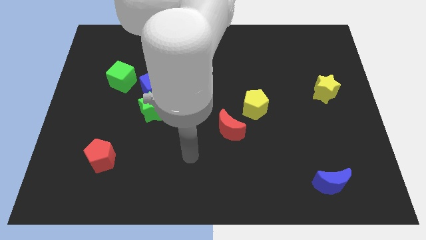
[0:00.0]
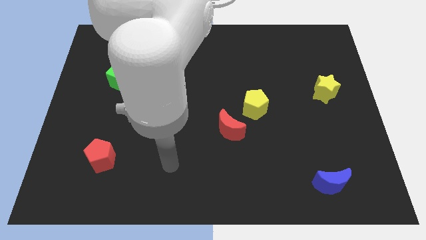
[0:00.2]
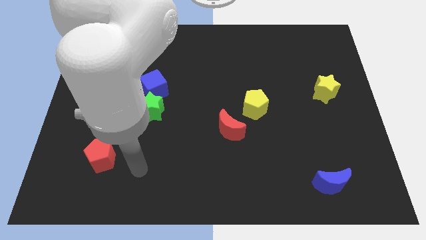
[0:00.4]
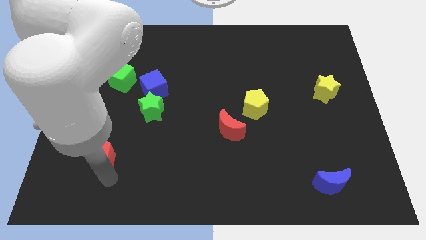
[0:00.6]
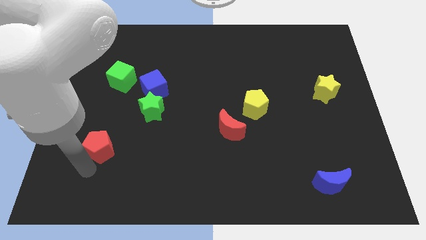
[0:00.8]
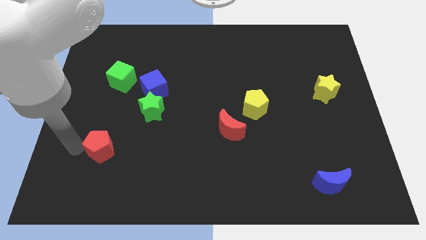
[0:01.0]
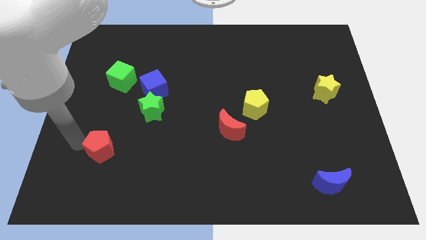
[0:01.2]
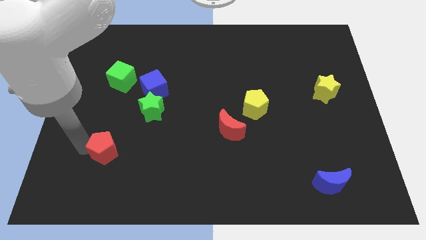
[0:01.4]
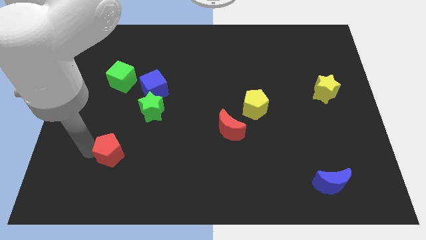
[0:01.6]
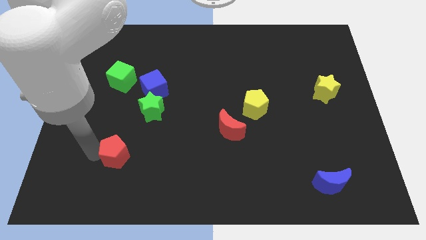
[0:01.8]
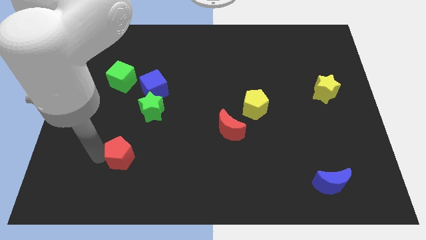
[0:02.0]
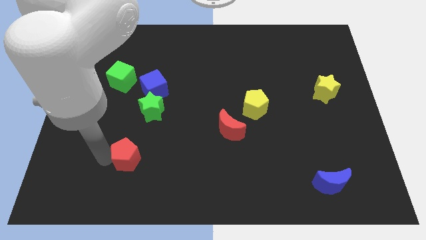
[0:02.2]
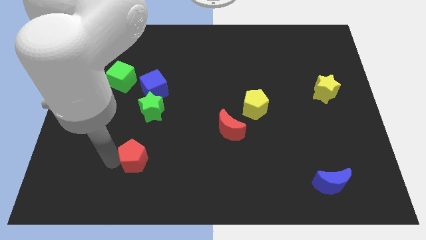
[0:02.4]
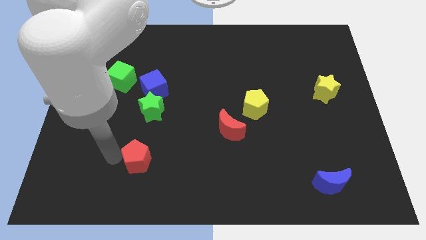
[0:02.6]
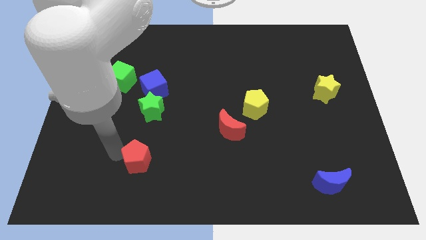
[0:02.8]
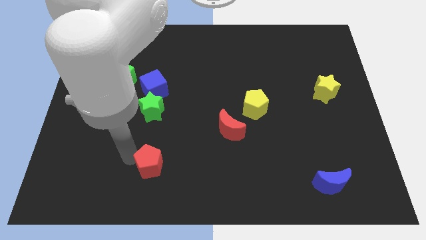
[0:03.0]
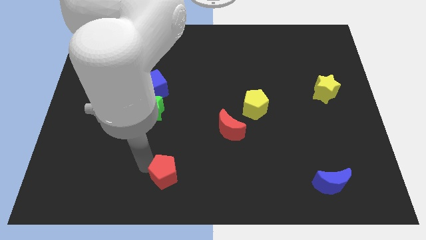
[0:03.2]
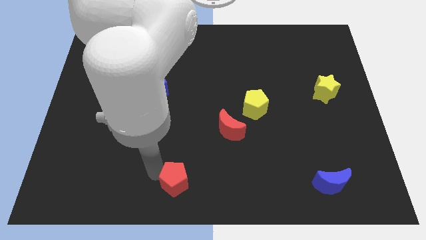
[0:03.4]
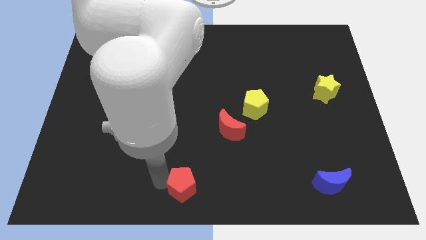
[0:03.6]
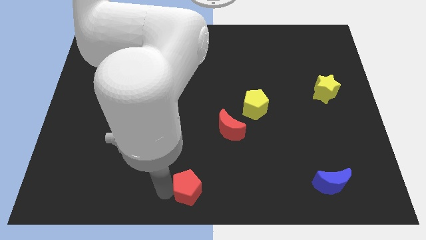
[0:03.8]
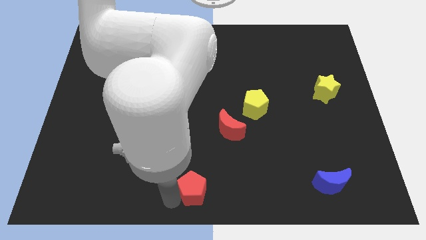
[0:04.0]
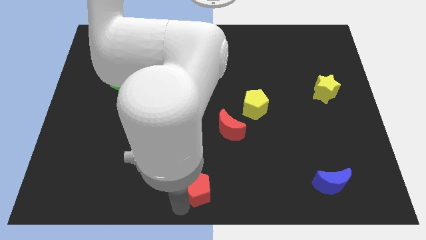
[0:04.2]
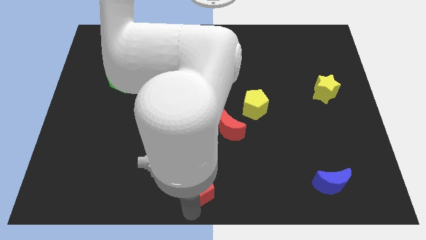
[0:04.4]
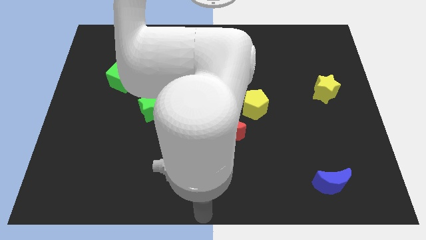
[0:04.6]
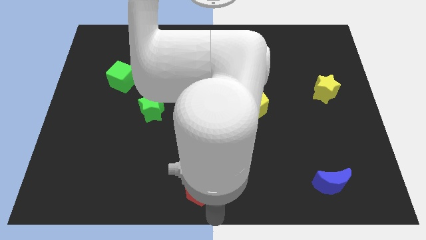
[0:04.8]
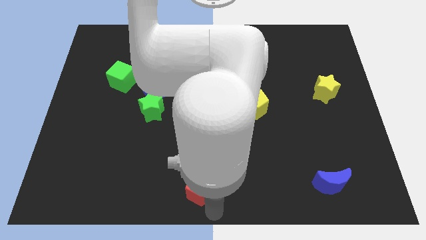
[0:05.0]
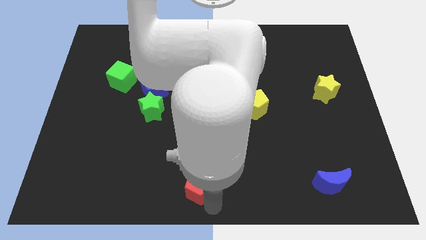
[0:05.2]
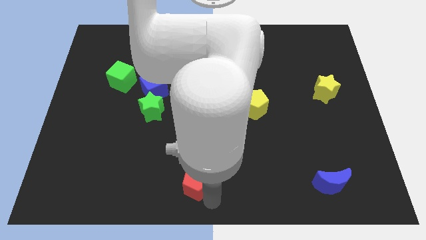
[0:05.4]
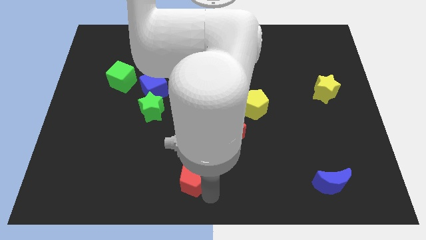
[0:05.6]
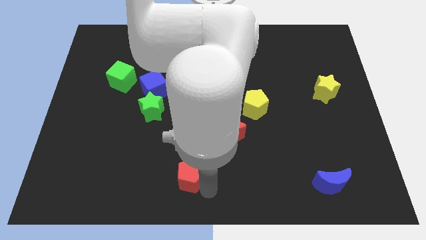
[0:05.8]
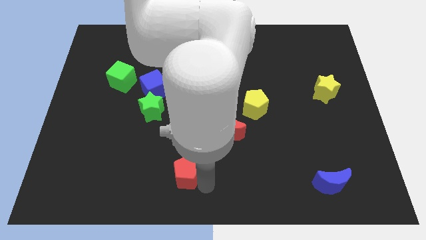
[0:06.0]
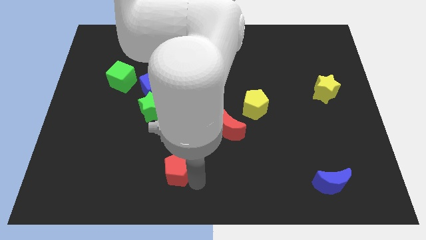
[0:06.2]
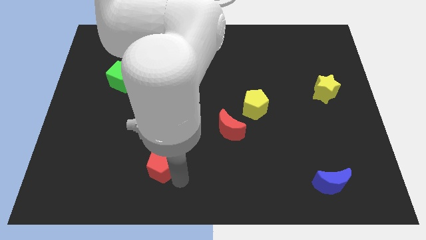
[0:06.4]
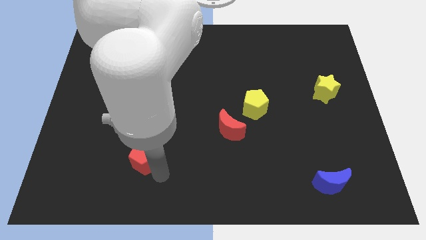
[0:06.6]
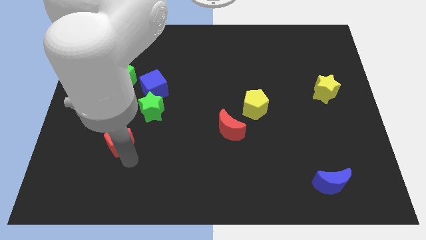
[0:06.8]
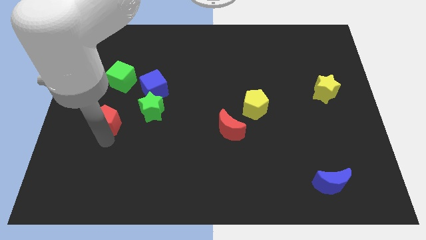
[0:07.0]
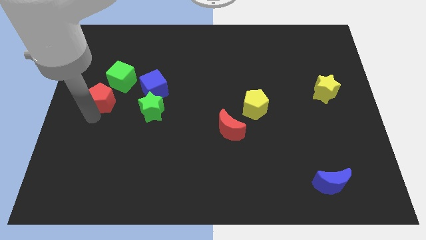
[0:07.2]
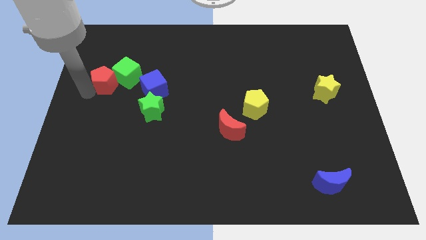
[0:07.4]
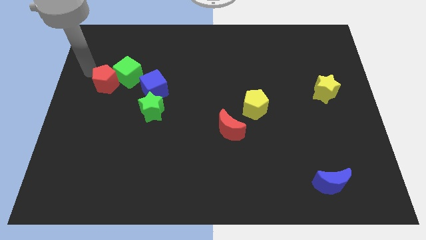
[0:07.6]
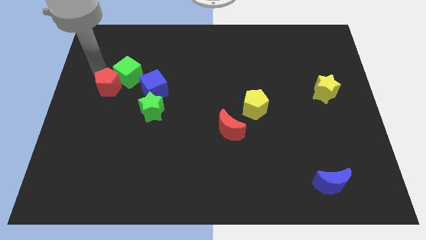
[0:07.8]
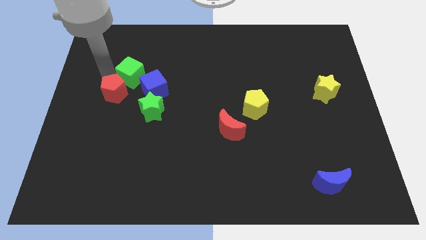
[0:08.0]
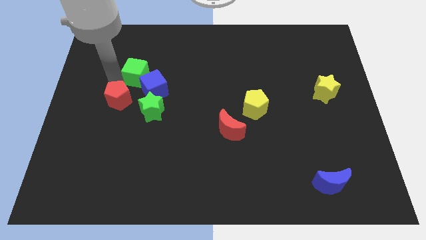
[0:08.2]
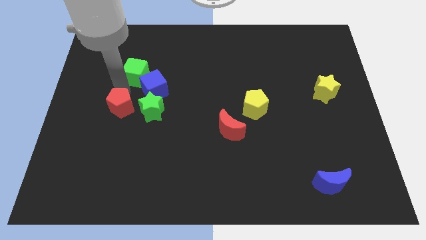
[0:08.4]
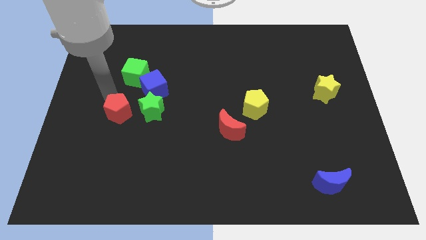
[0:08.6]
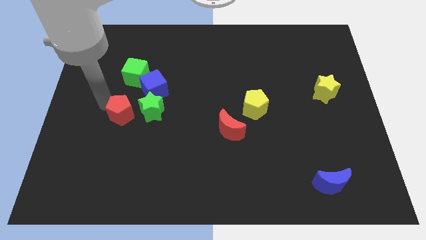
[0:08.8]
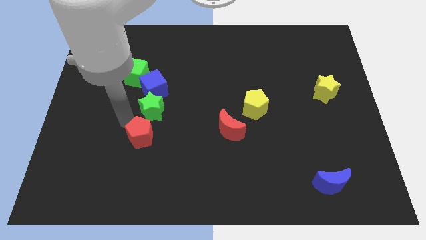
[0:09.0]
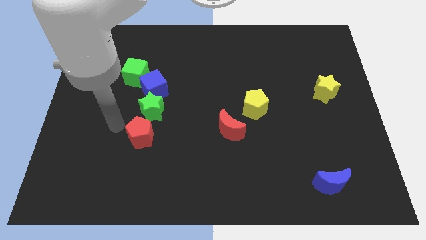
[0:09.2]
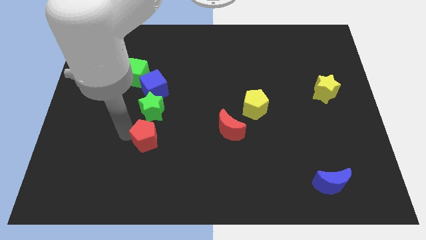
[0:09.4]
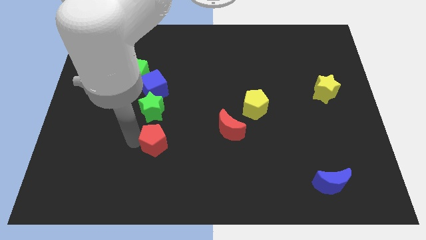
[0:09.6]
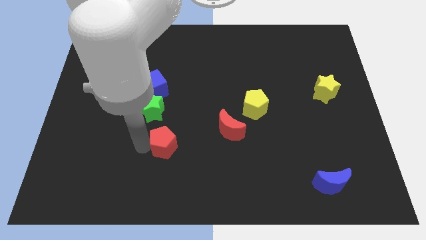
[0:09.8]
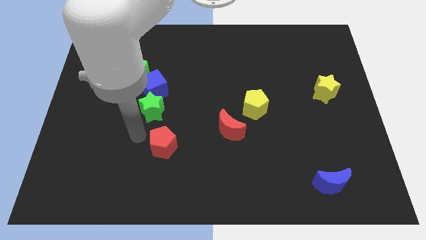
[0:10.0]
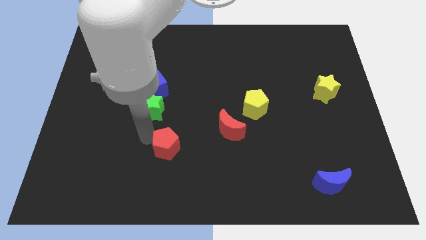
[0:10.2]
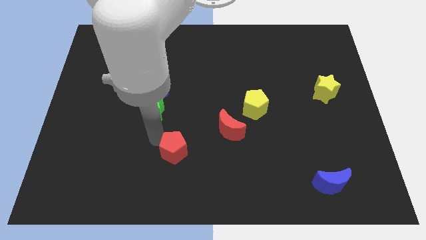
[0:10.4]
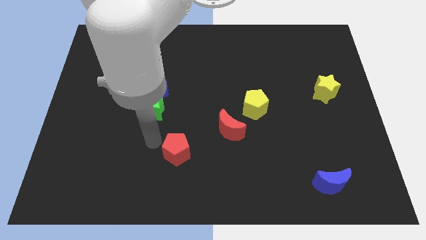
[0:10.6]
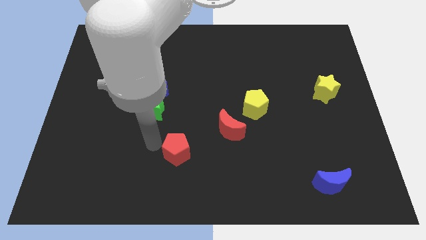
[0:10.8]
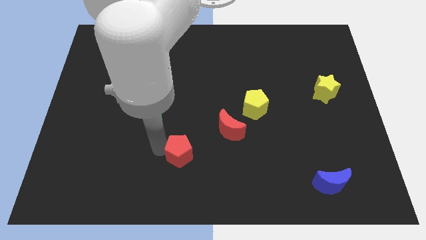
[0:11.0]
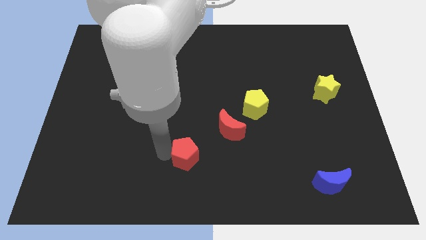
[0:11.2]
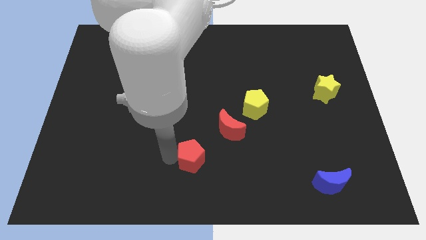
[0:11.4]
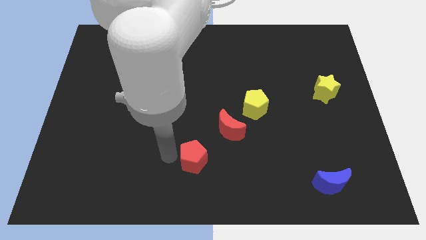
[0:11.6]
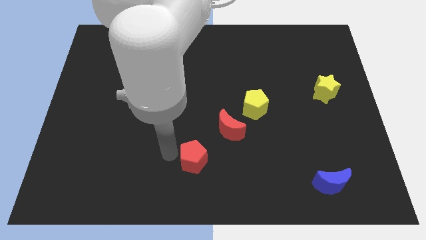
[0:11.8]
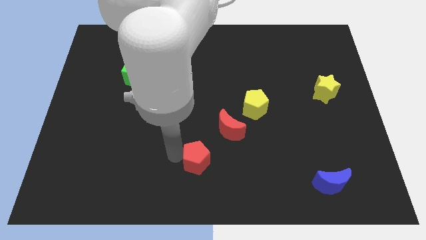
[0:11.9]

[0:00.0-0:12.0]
push the red pentagon right

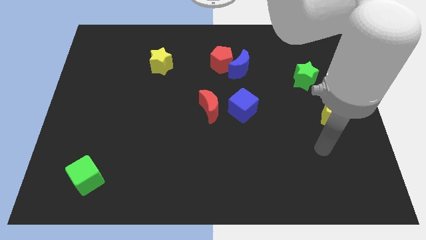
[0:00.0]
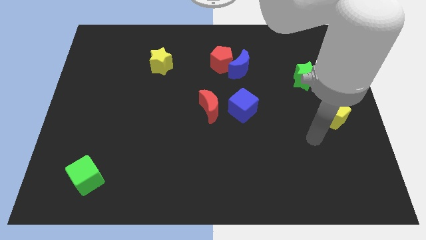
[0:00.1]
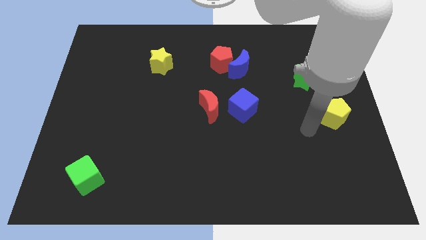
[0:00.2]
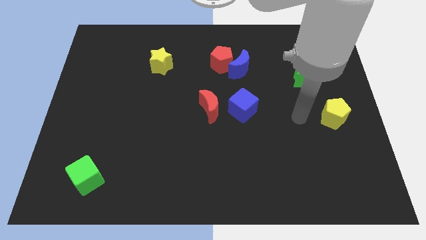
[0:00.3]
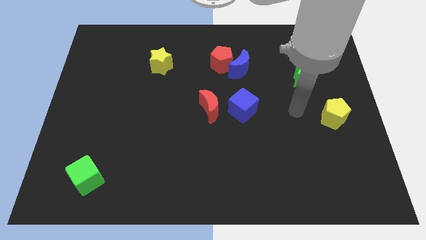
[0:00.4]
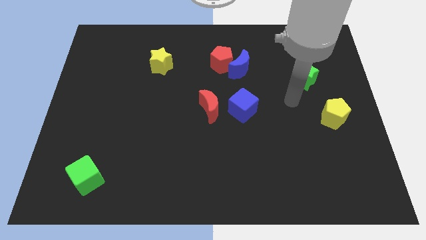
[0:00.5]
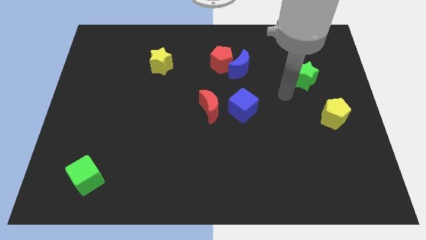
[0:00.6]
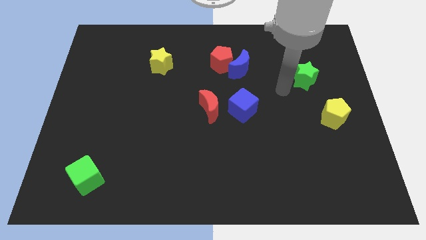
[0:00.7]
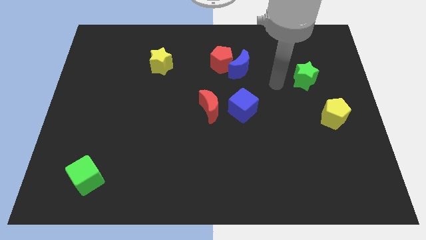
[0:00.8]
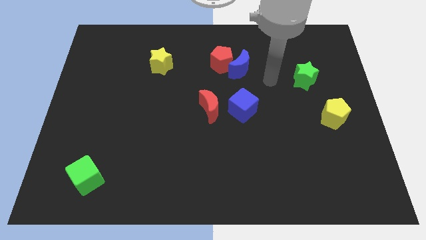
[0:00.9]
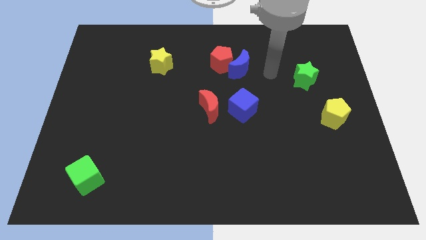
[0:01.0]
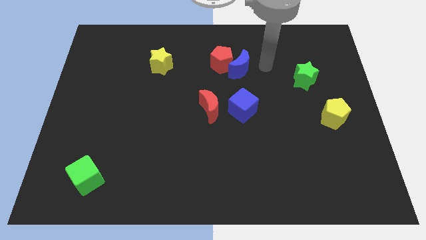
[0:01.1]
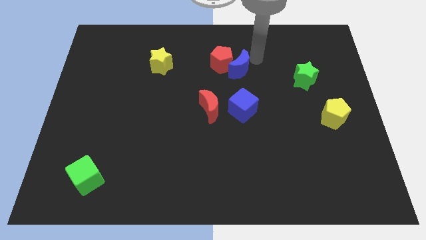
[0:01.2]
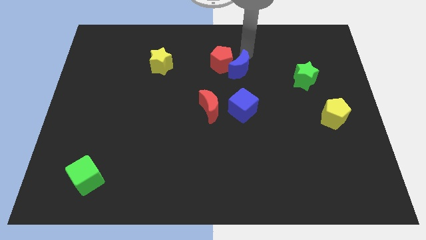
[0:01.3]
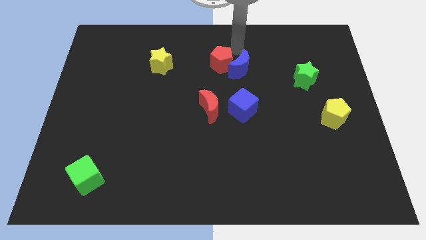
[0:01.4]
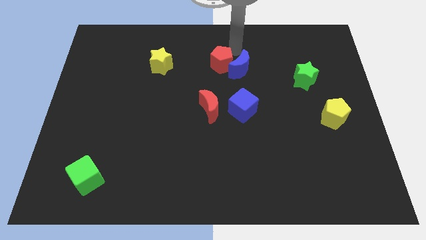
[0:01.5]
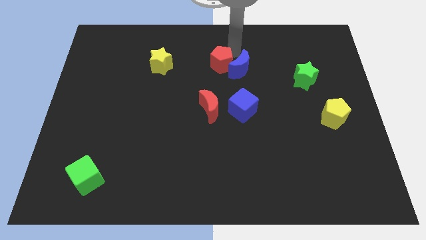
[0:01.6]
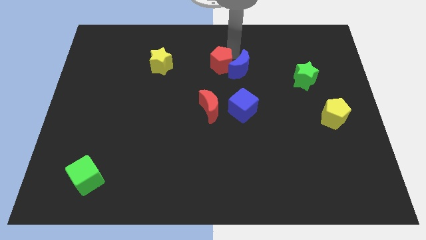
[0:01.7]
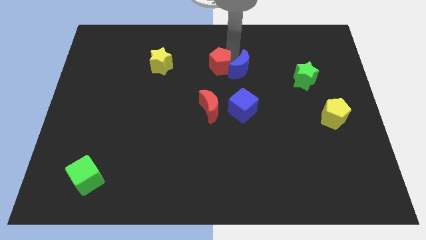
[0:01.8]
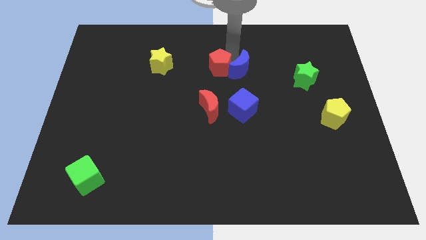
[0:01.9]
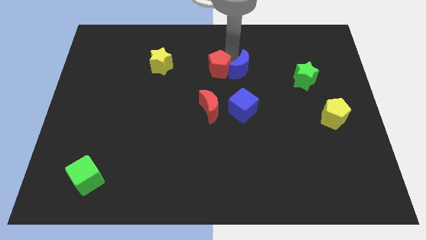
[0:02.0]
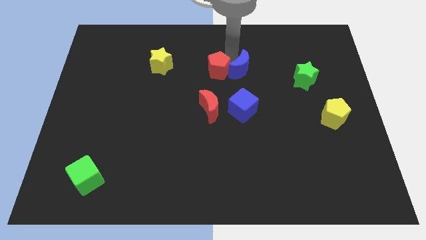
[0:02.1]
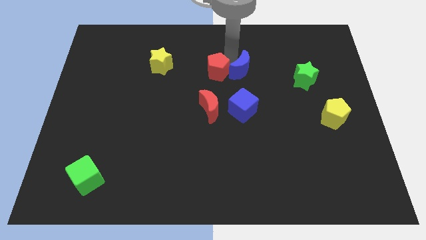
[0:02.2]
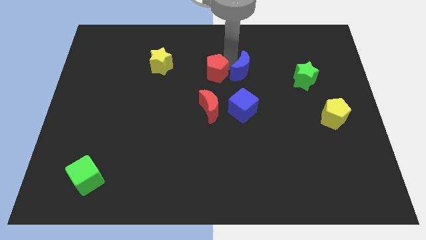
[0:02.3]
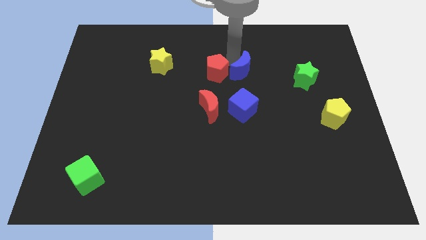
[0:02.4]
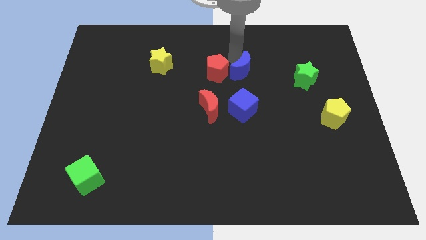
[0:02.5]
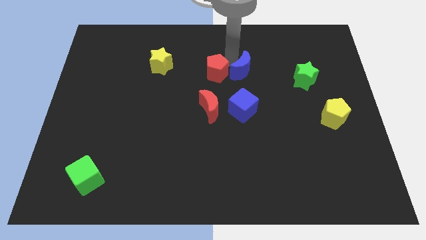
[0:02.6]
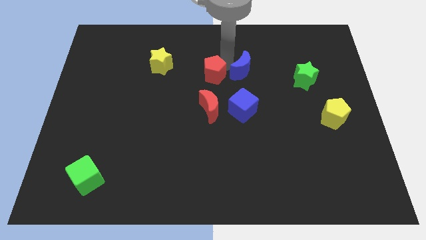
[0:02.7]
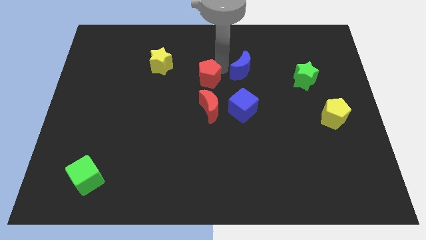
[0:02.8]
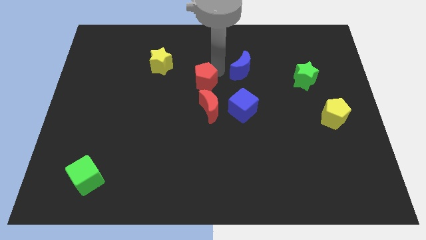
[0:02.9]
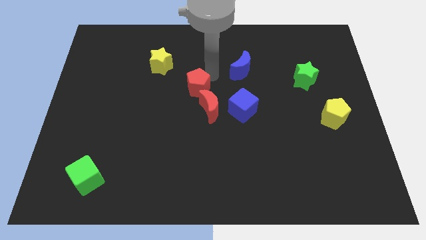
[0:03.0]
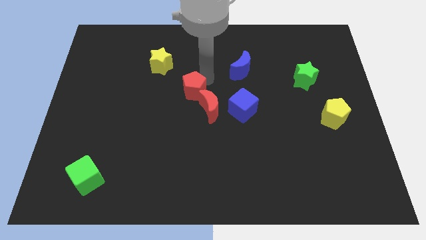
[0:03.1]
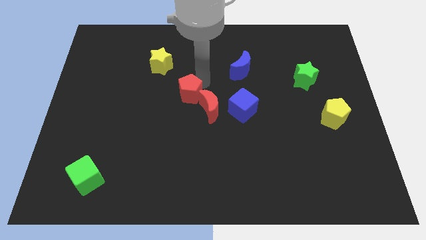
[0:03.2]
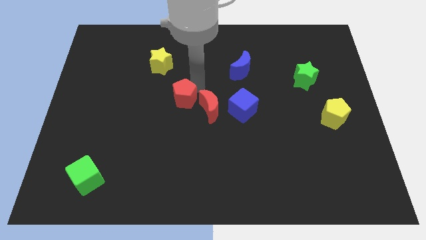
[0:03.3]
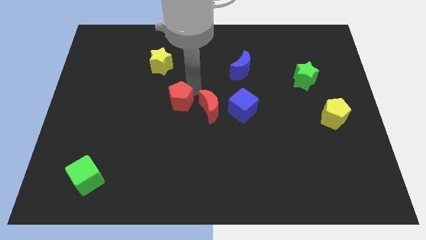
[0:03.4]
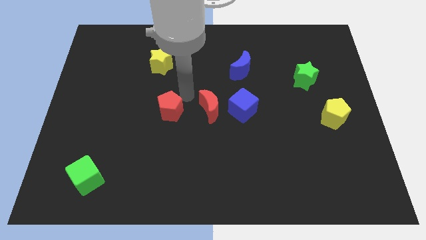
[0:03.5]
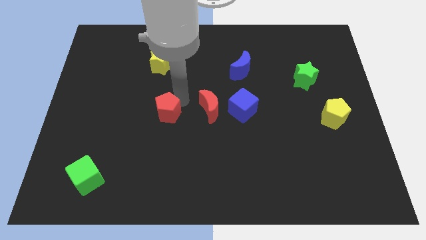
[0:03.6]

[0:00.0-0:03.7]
slide the red pentagon down and left
